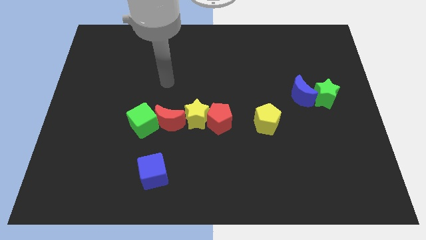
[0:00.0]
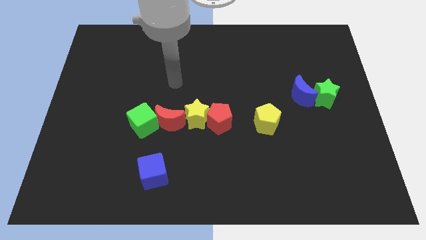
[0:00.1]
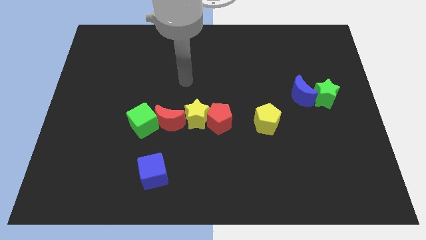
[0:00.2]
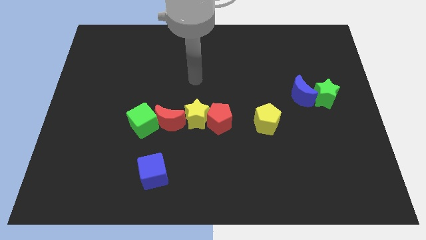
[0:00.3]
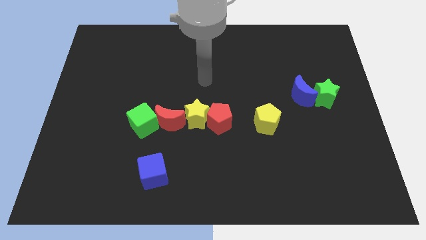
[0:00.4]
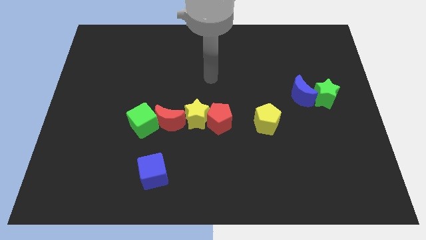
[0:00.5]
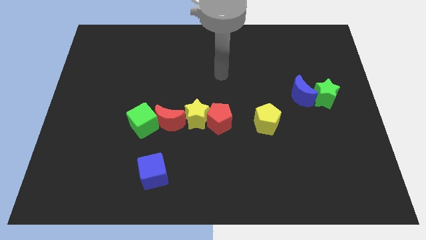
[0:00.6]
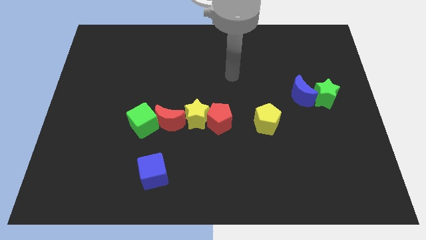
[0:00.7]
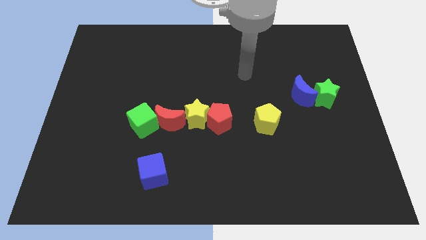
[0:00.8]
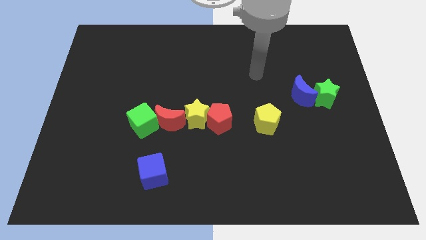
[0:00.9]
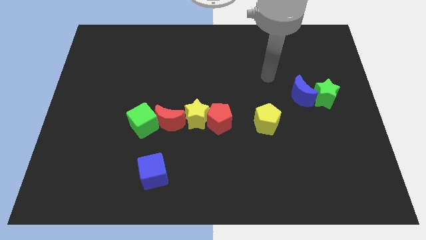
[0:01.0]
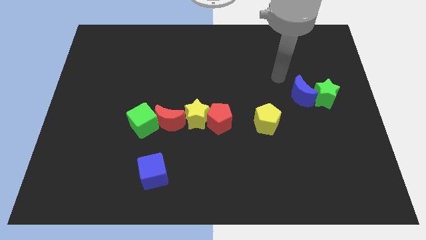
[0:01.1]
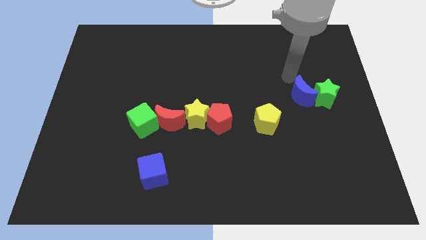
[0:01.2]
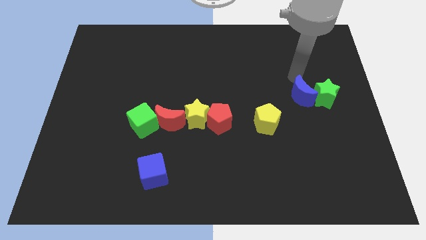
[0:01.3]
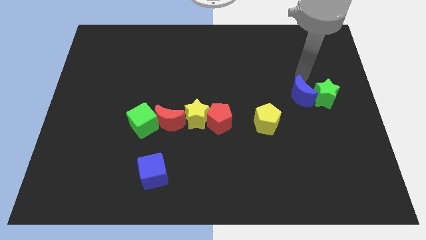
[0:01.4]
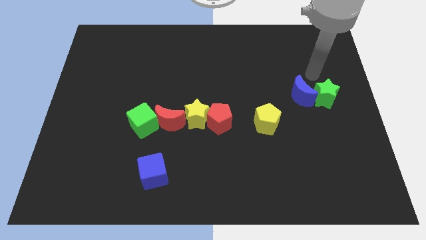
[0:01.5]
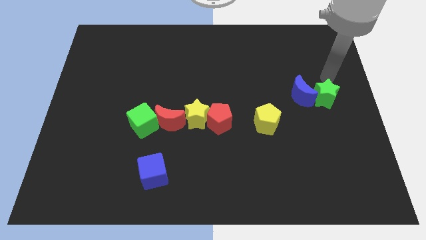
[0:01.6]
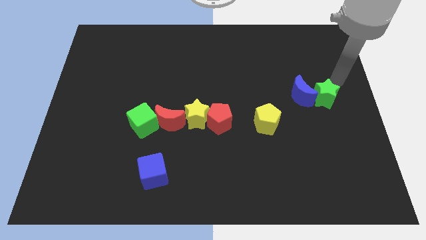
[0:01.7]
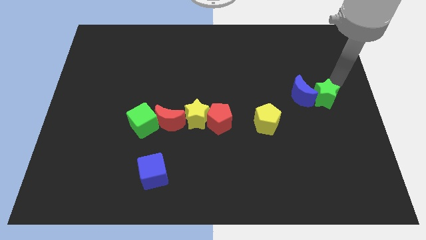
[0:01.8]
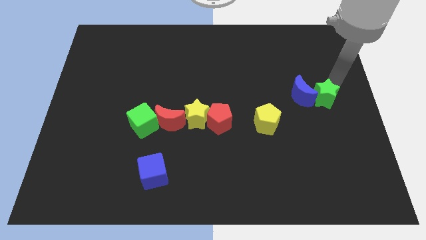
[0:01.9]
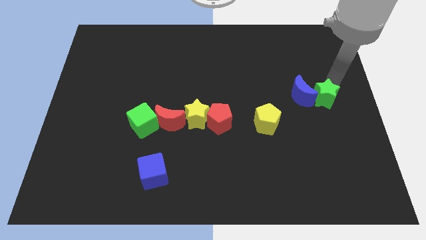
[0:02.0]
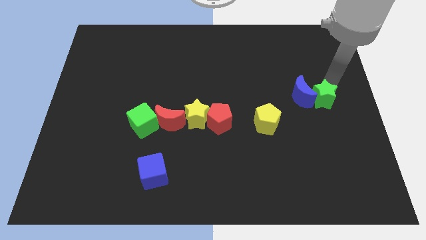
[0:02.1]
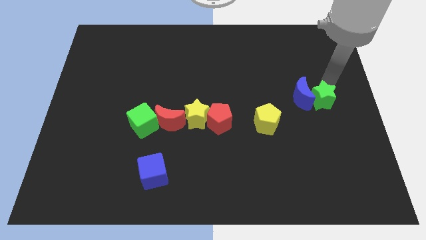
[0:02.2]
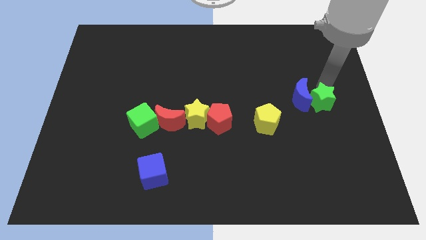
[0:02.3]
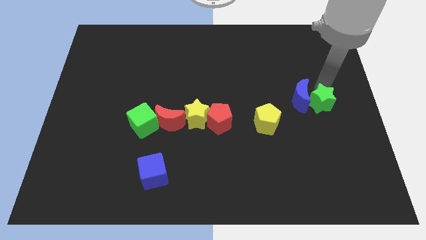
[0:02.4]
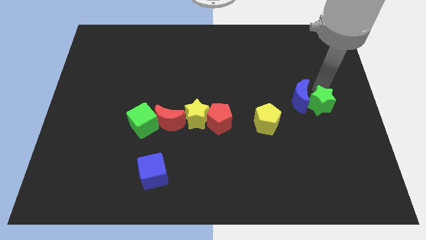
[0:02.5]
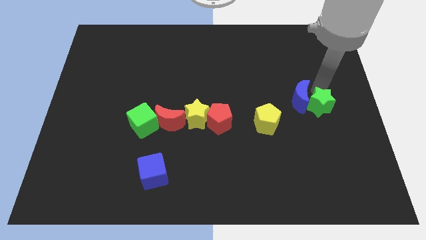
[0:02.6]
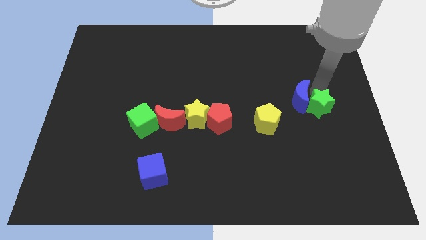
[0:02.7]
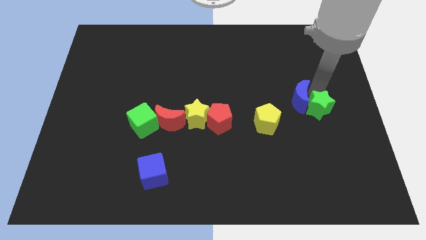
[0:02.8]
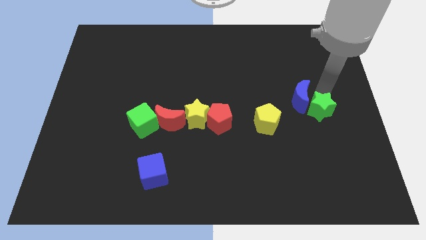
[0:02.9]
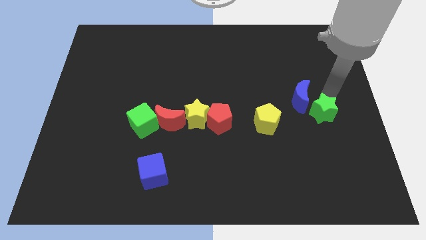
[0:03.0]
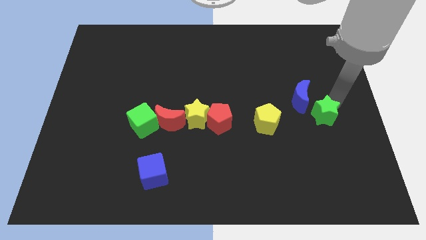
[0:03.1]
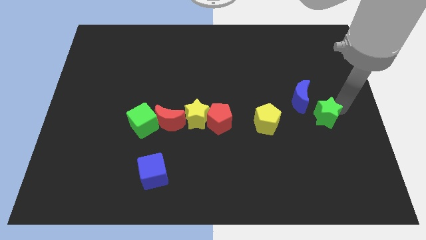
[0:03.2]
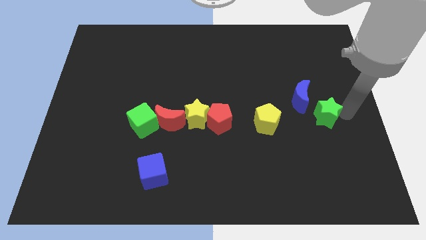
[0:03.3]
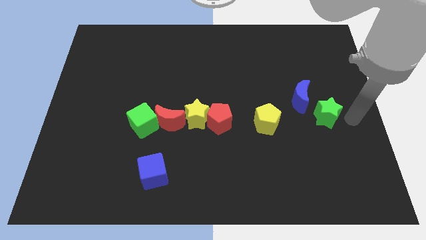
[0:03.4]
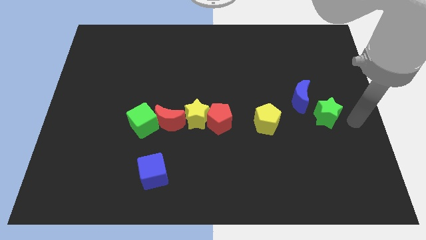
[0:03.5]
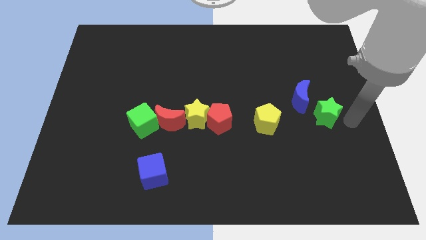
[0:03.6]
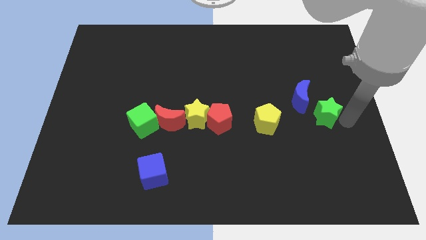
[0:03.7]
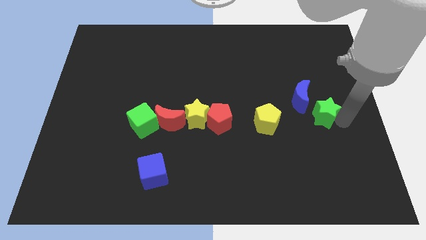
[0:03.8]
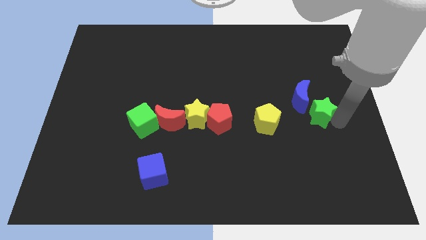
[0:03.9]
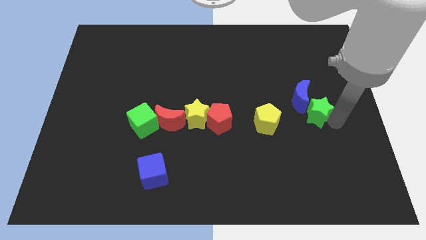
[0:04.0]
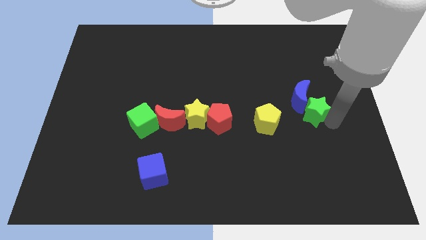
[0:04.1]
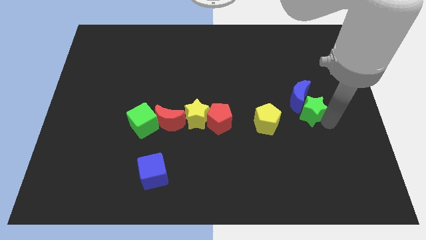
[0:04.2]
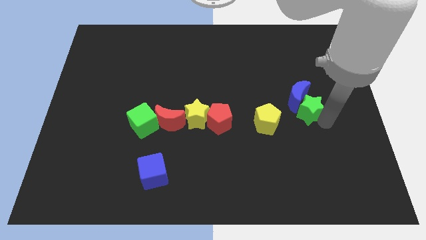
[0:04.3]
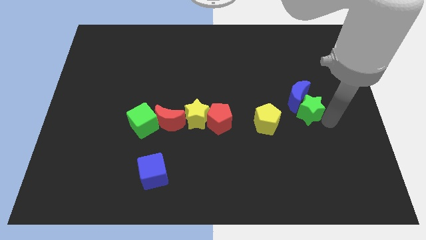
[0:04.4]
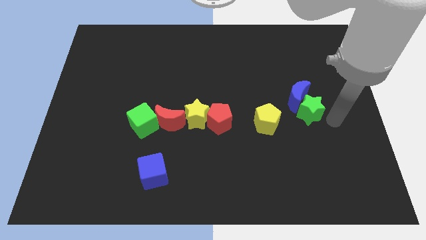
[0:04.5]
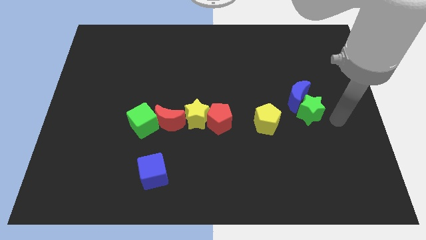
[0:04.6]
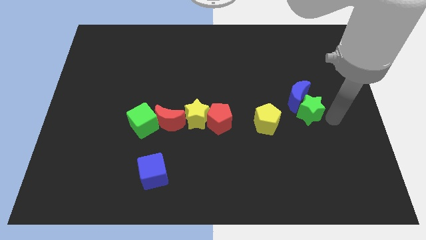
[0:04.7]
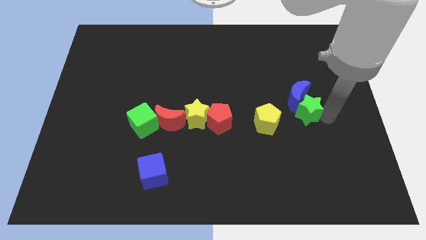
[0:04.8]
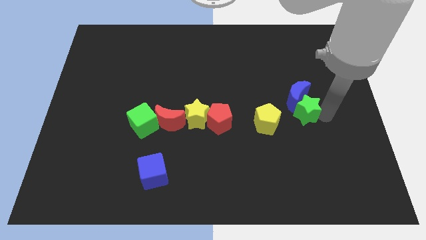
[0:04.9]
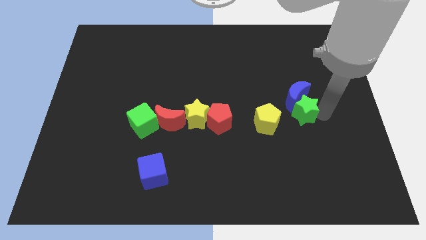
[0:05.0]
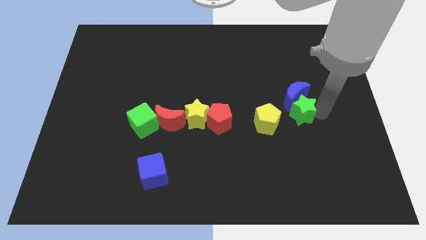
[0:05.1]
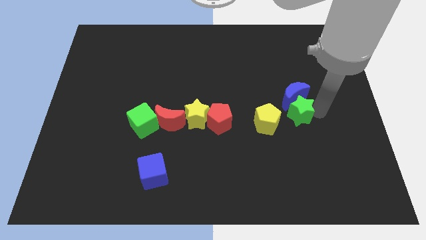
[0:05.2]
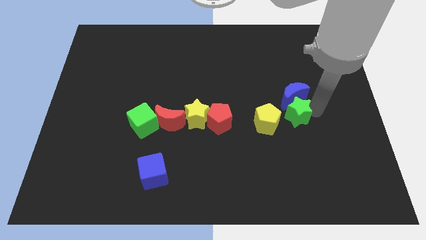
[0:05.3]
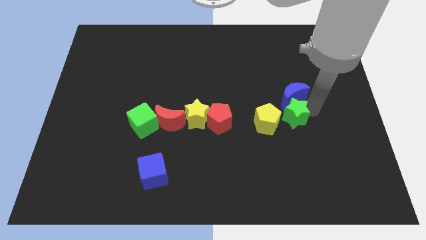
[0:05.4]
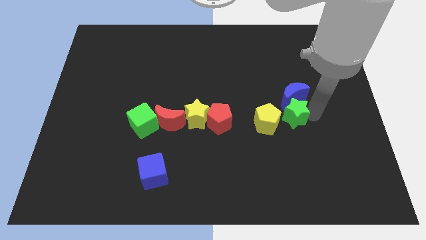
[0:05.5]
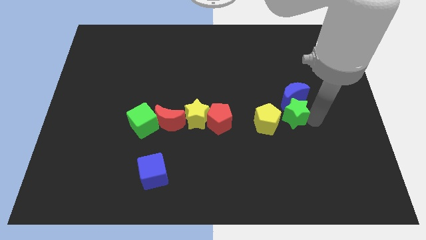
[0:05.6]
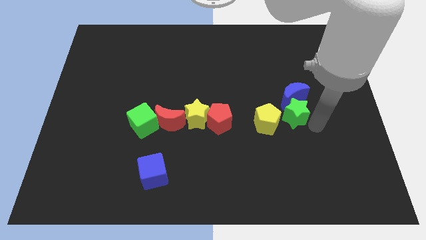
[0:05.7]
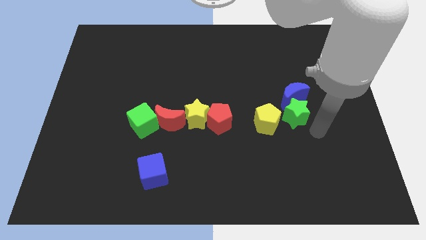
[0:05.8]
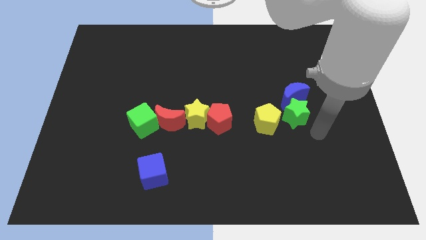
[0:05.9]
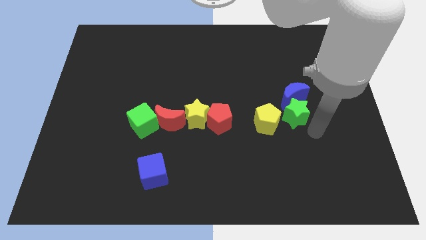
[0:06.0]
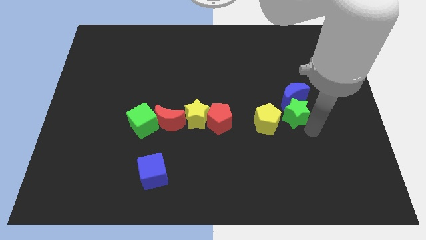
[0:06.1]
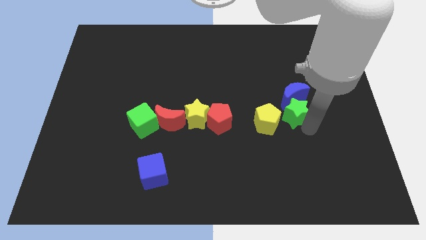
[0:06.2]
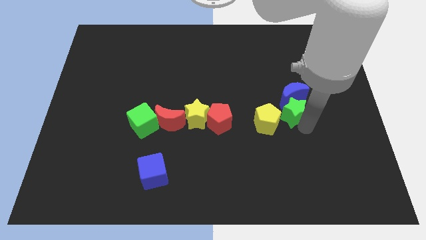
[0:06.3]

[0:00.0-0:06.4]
move the green star to the left a little bit

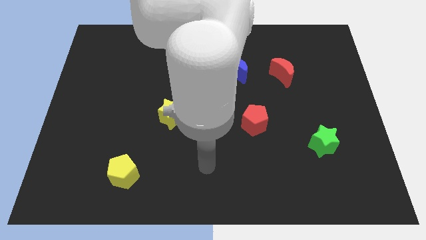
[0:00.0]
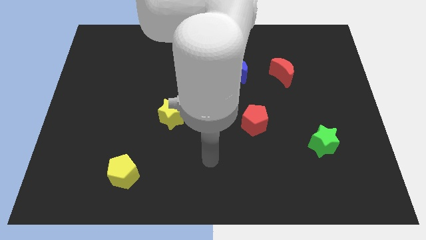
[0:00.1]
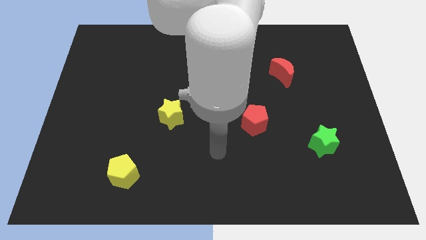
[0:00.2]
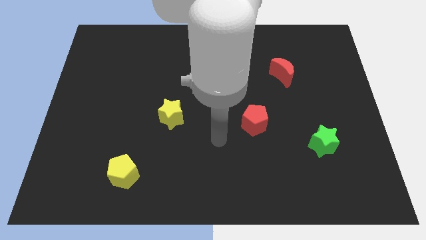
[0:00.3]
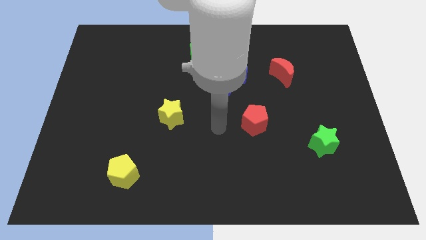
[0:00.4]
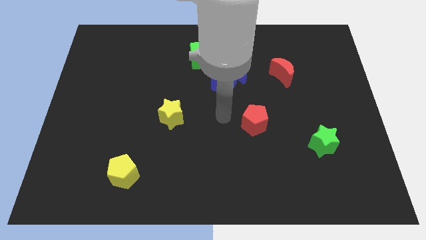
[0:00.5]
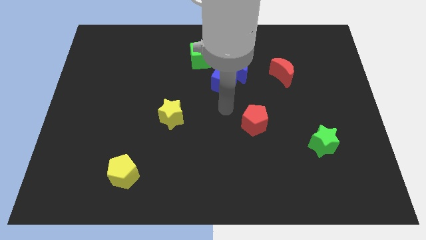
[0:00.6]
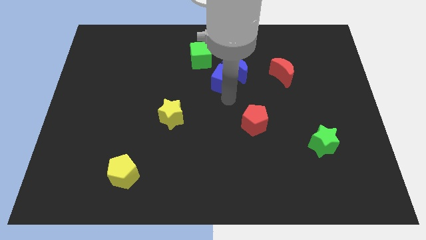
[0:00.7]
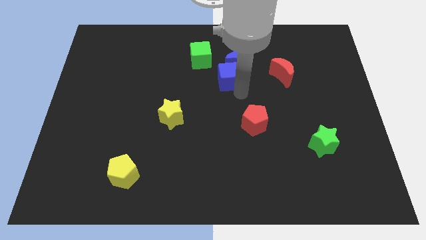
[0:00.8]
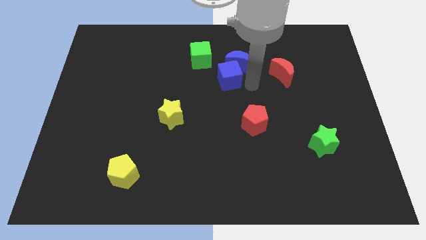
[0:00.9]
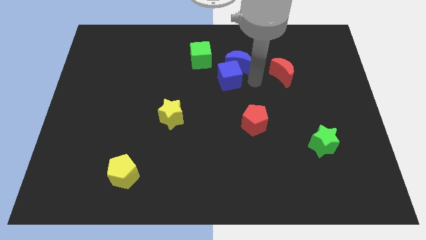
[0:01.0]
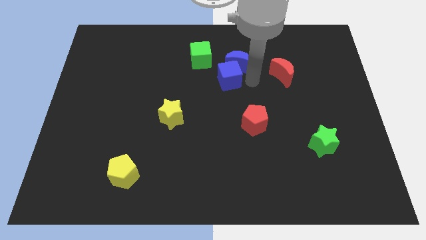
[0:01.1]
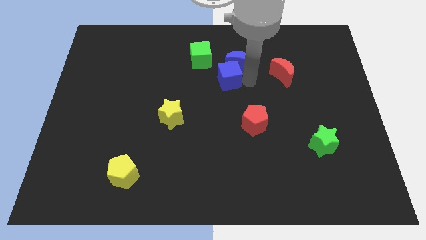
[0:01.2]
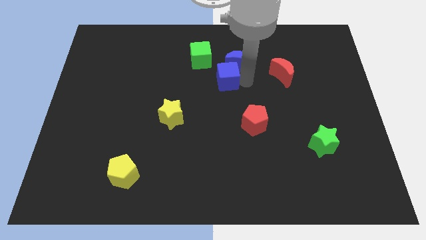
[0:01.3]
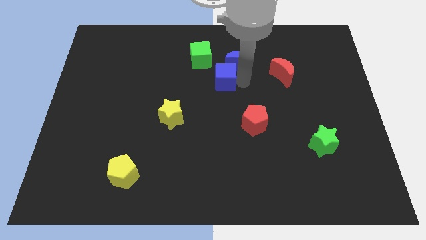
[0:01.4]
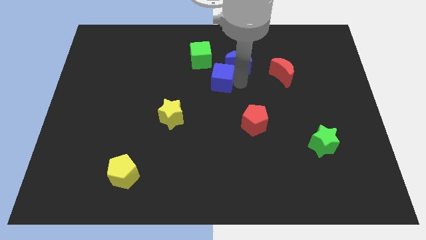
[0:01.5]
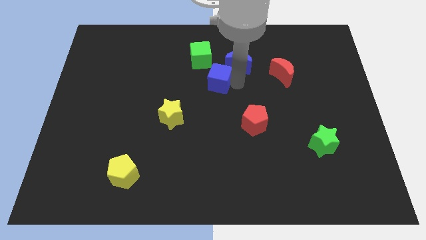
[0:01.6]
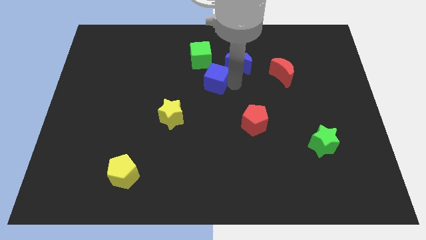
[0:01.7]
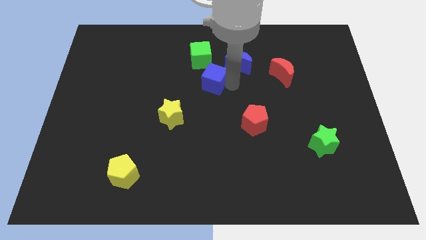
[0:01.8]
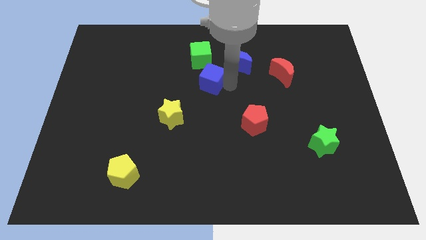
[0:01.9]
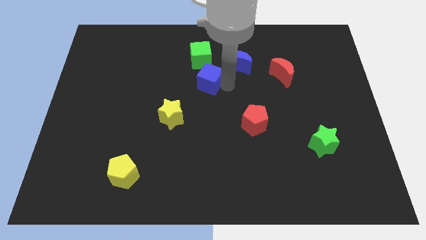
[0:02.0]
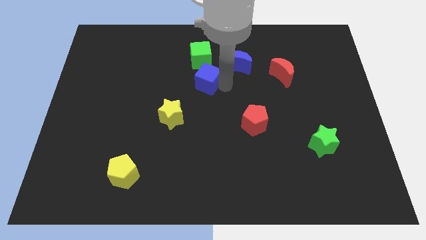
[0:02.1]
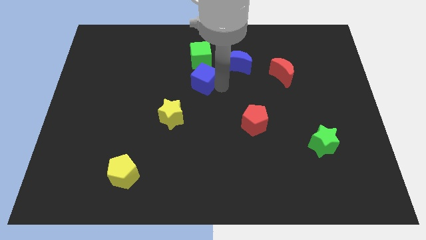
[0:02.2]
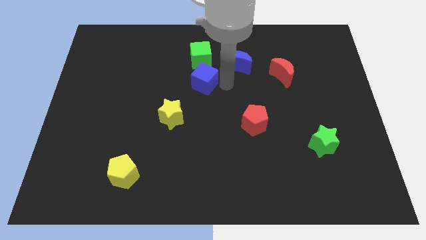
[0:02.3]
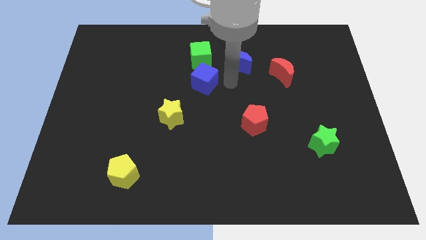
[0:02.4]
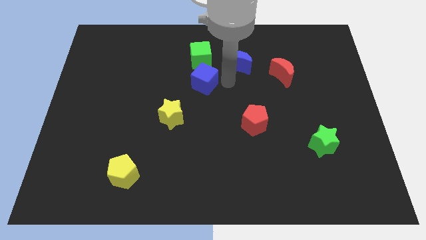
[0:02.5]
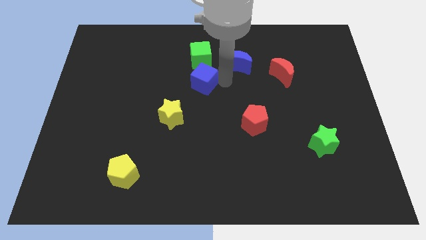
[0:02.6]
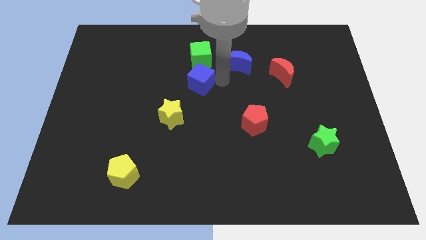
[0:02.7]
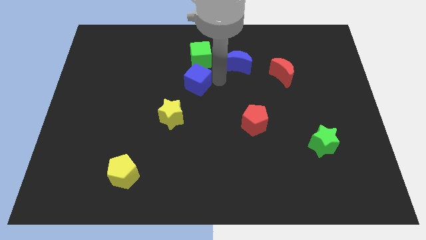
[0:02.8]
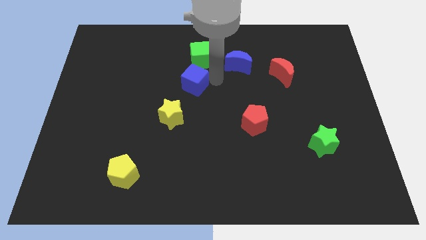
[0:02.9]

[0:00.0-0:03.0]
move the blue cube to the left a little
